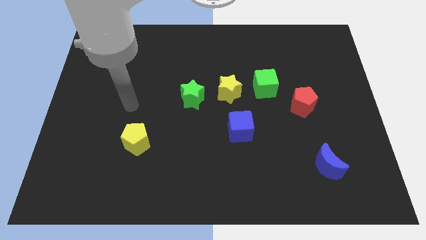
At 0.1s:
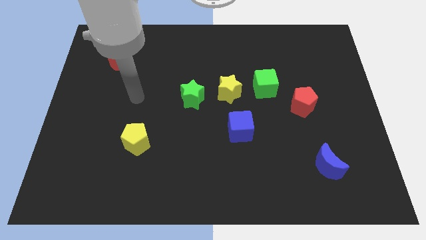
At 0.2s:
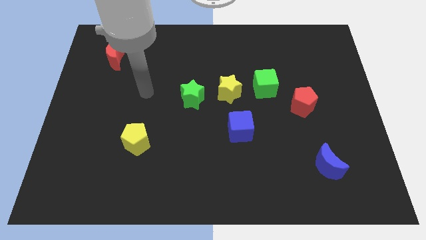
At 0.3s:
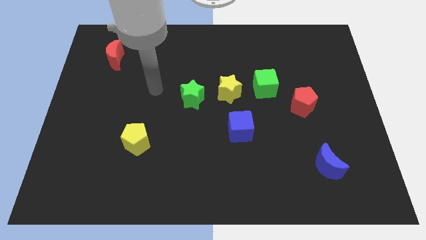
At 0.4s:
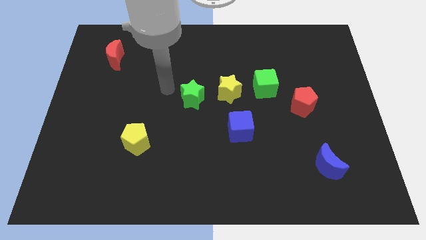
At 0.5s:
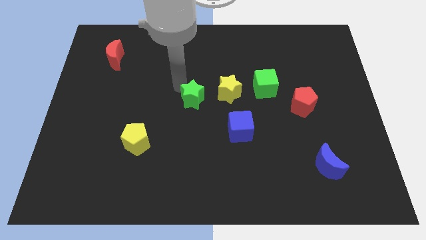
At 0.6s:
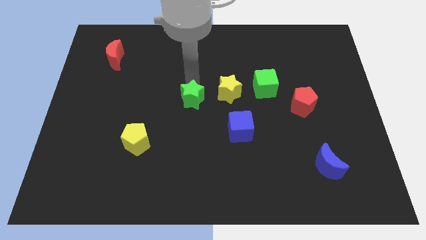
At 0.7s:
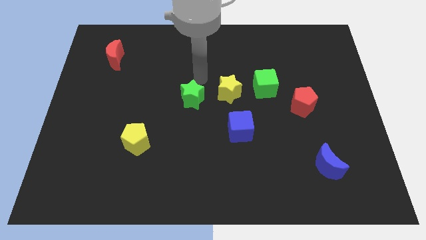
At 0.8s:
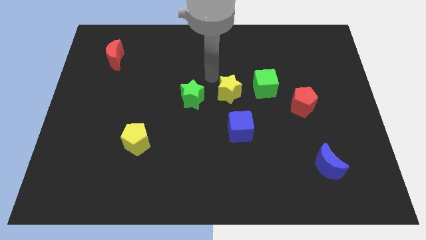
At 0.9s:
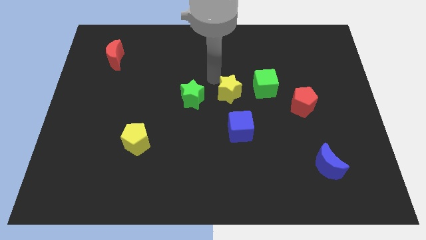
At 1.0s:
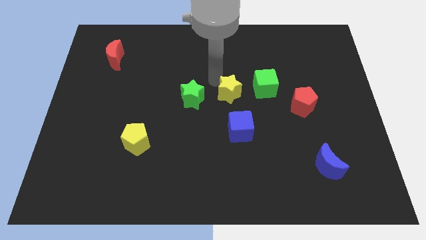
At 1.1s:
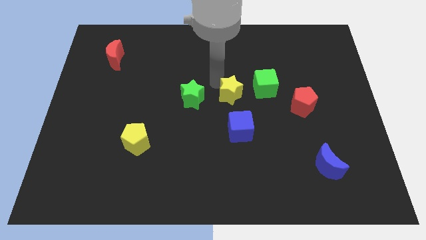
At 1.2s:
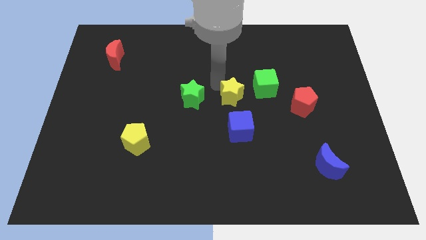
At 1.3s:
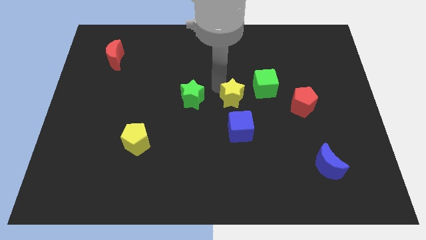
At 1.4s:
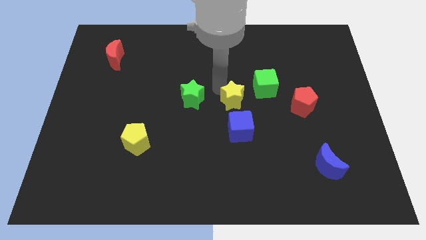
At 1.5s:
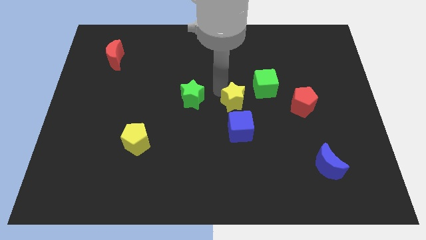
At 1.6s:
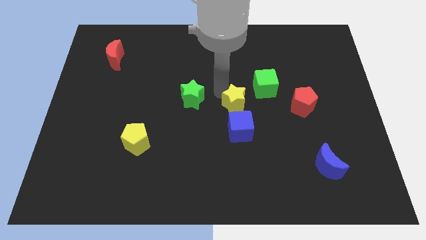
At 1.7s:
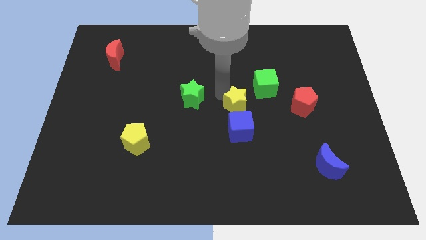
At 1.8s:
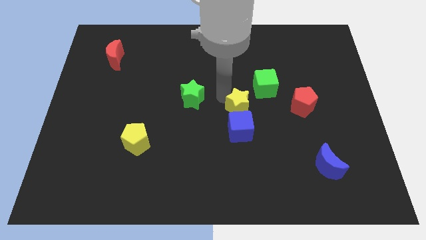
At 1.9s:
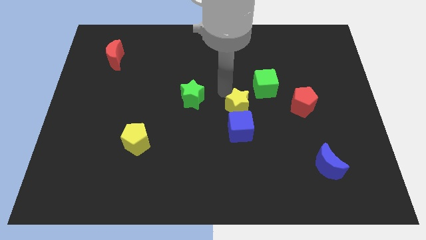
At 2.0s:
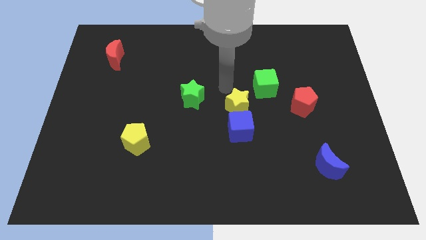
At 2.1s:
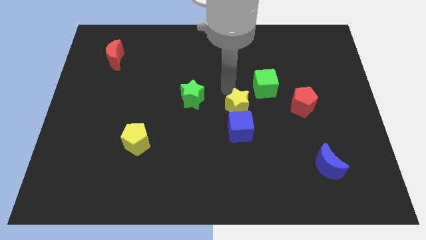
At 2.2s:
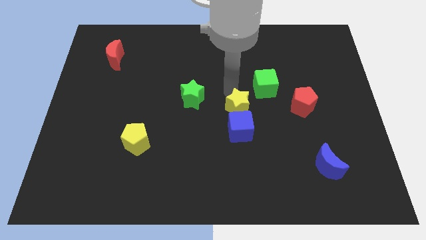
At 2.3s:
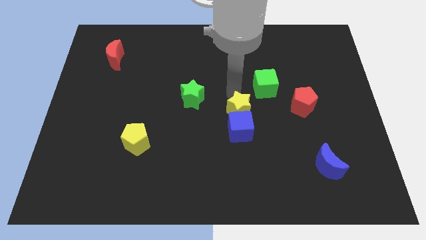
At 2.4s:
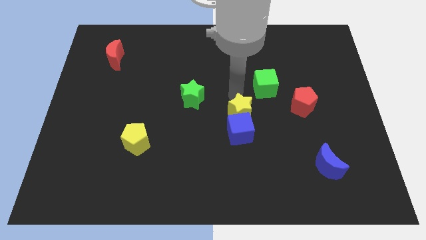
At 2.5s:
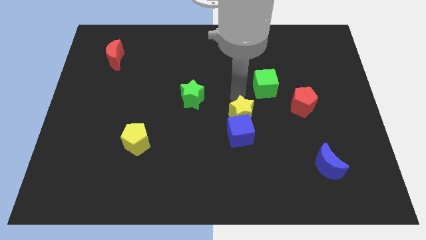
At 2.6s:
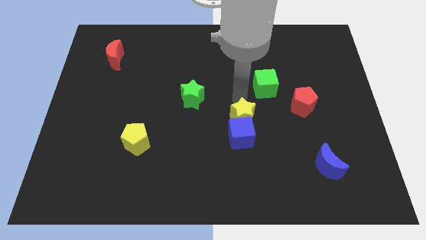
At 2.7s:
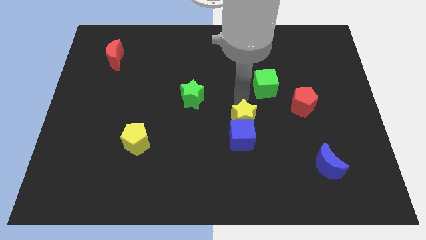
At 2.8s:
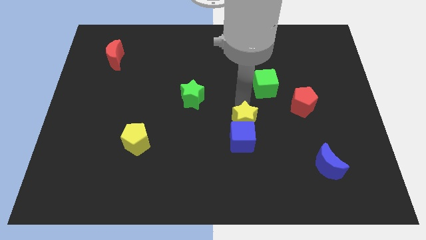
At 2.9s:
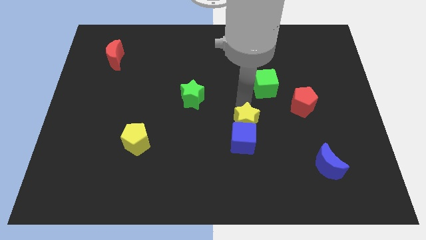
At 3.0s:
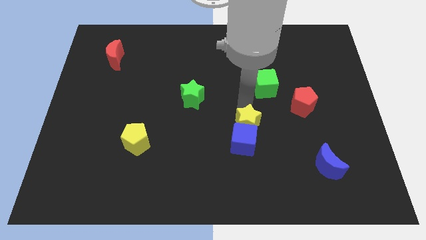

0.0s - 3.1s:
separate the yellow star from the green cube and green star

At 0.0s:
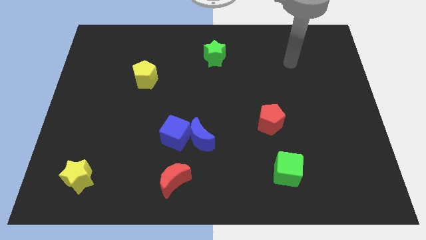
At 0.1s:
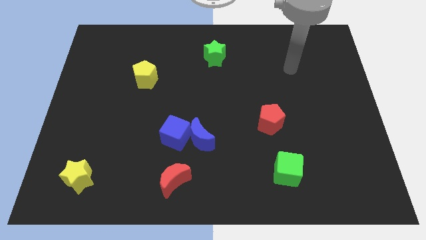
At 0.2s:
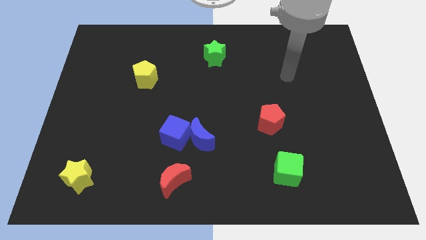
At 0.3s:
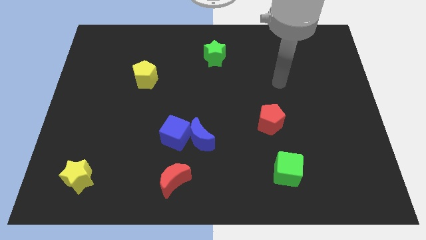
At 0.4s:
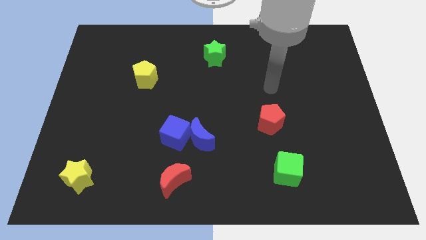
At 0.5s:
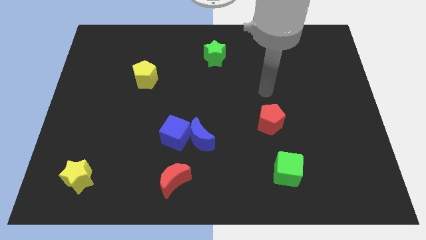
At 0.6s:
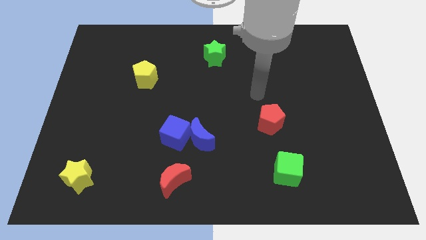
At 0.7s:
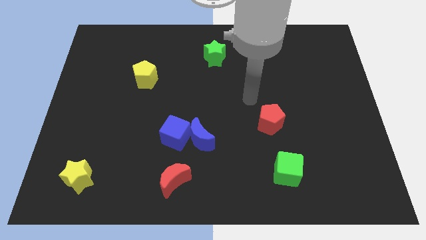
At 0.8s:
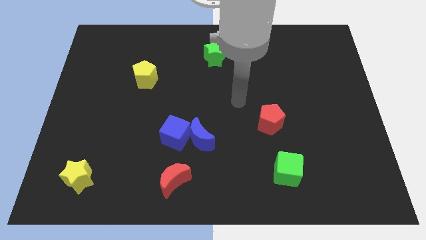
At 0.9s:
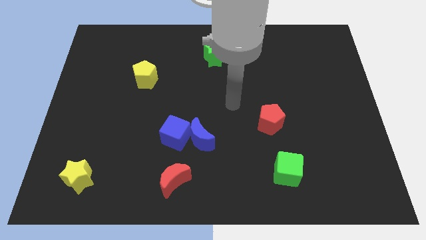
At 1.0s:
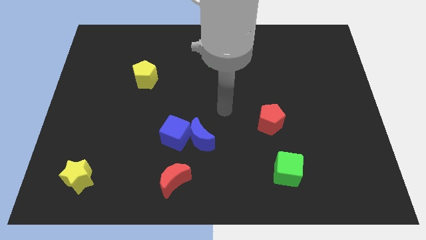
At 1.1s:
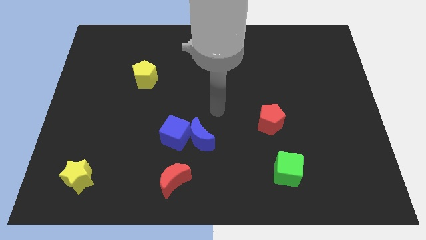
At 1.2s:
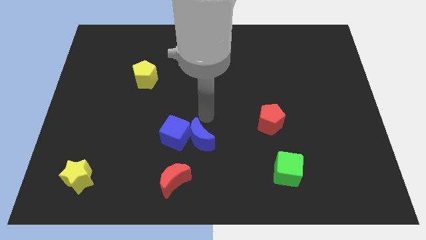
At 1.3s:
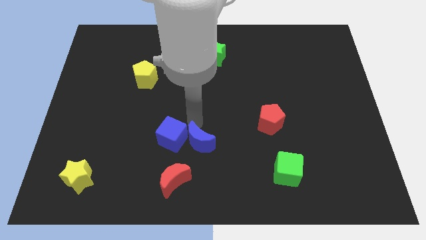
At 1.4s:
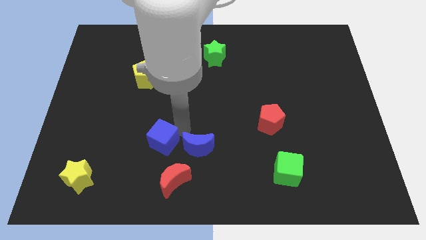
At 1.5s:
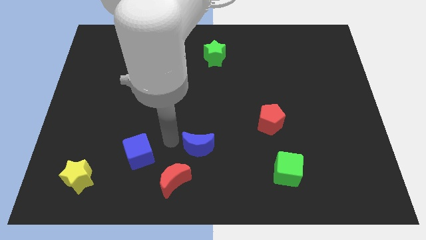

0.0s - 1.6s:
pull the blue moon apart from the blue cube

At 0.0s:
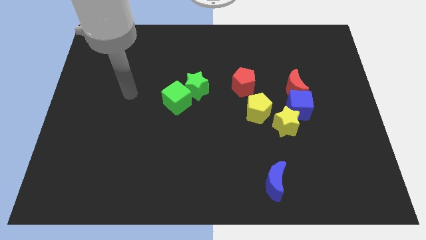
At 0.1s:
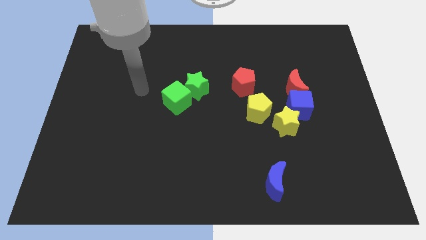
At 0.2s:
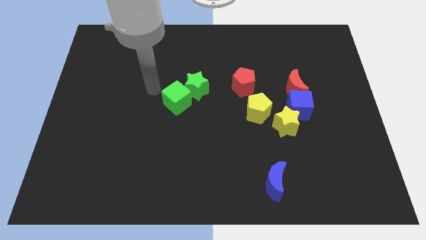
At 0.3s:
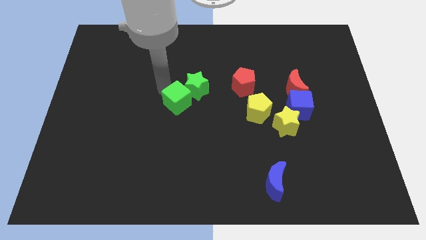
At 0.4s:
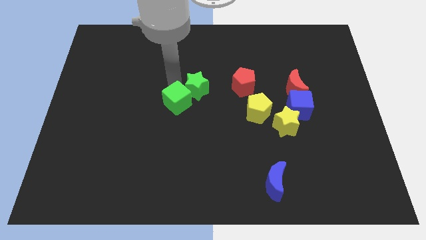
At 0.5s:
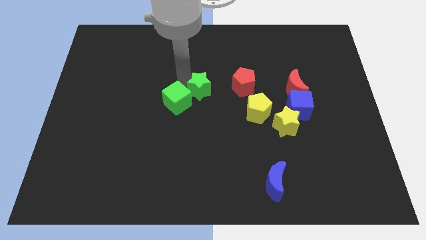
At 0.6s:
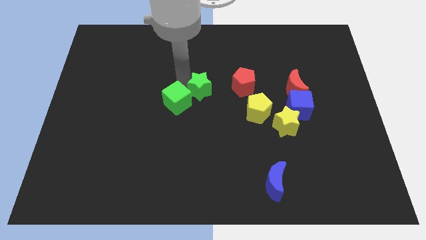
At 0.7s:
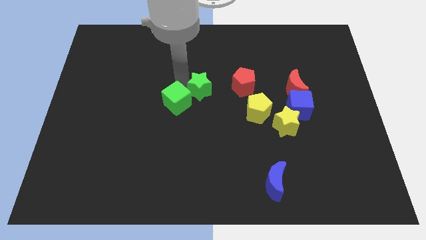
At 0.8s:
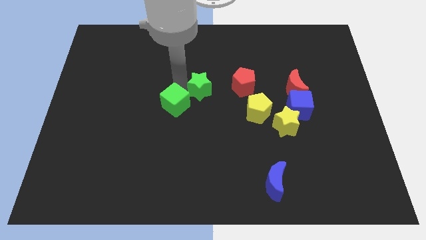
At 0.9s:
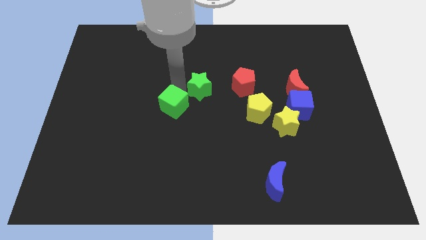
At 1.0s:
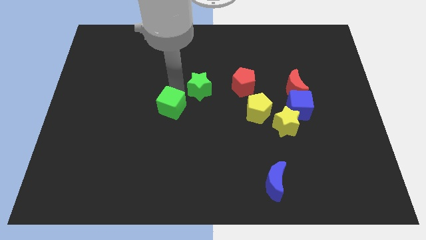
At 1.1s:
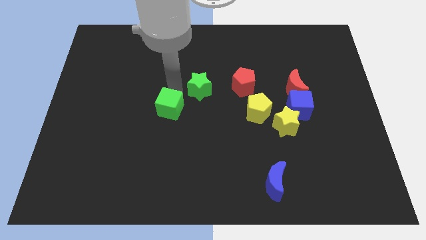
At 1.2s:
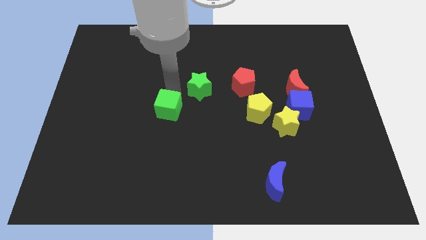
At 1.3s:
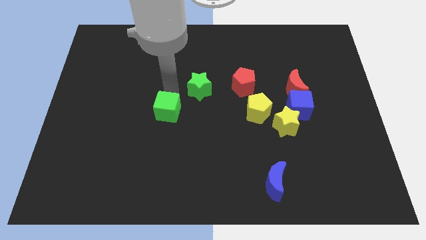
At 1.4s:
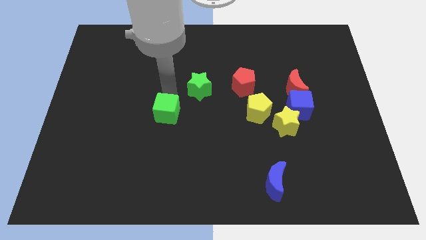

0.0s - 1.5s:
separate the green cube from the green star

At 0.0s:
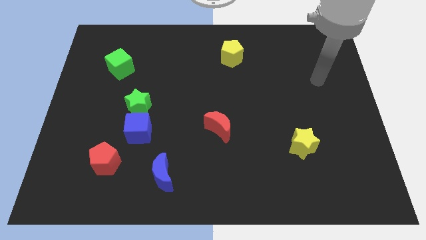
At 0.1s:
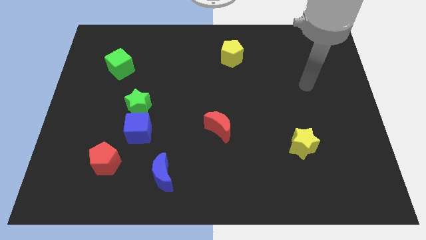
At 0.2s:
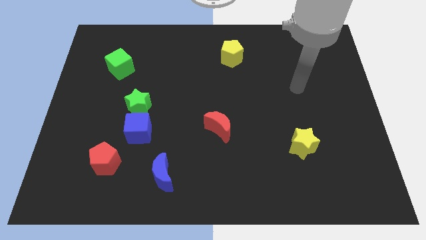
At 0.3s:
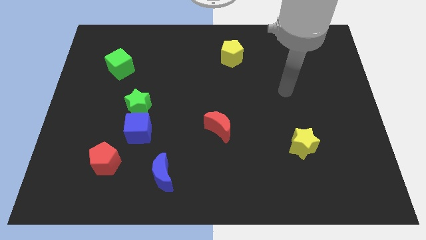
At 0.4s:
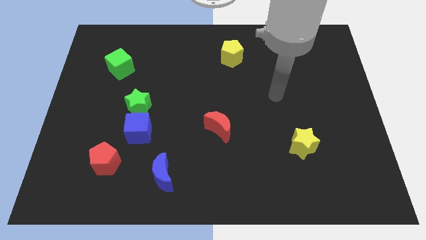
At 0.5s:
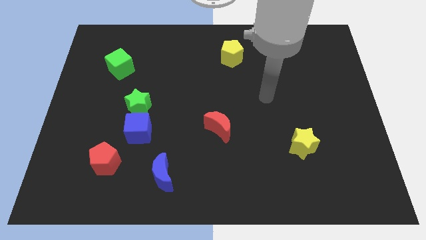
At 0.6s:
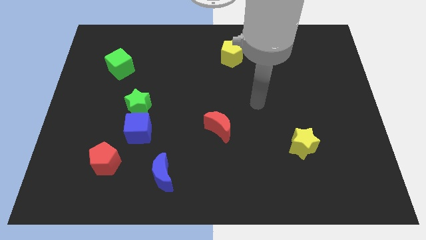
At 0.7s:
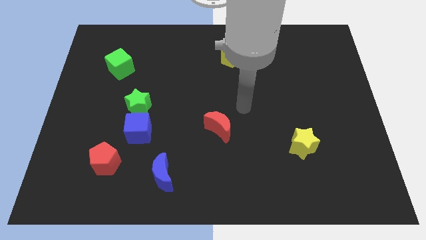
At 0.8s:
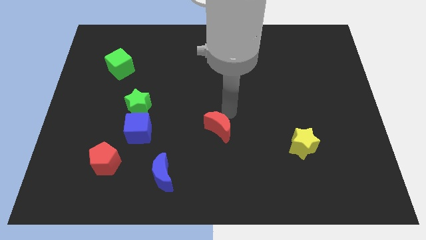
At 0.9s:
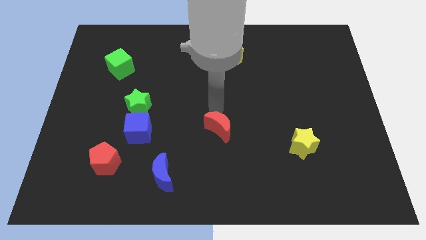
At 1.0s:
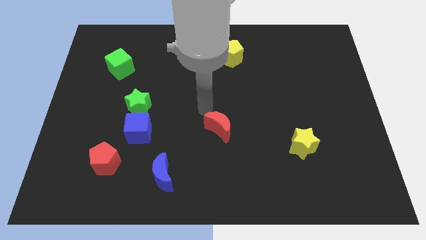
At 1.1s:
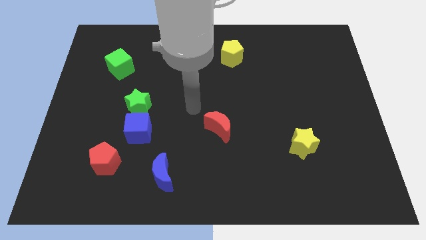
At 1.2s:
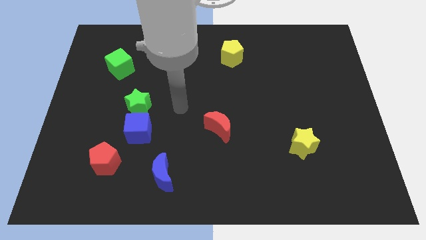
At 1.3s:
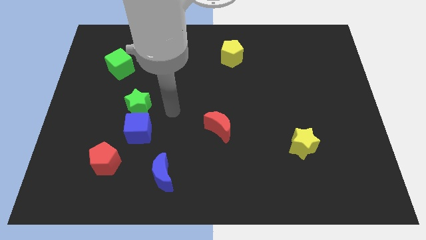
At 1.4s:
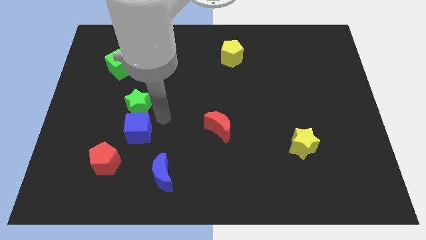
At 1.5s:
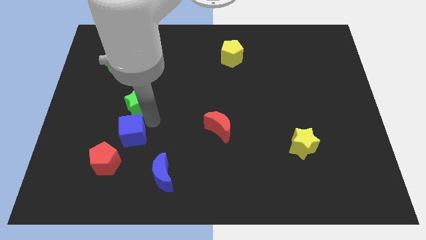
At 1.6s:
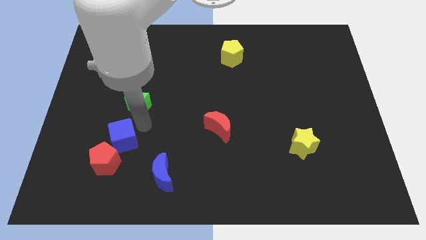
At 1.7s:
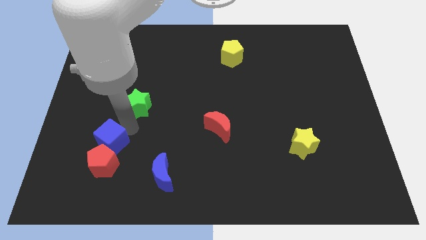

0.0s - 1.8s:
pull the green star apart from the blue cube

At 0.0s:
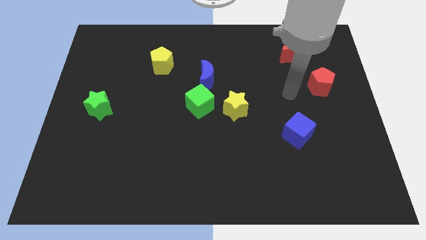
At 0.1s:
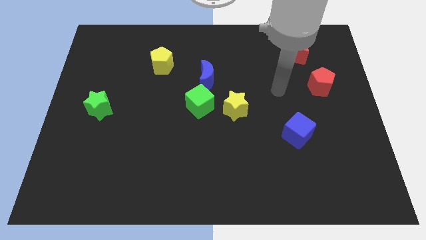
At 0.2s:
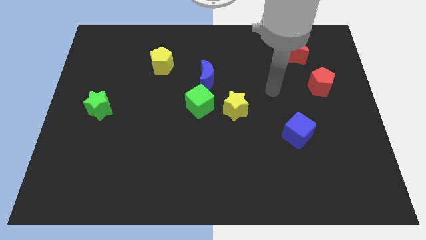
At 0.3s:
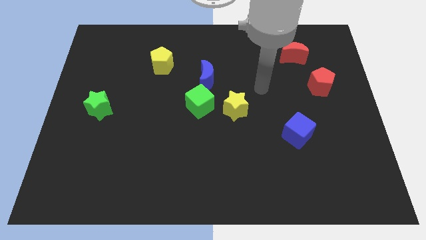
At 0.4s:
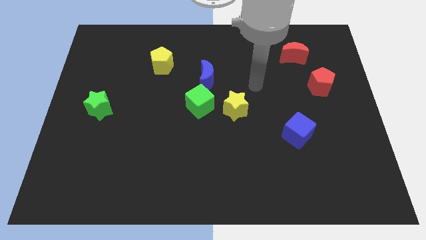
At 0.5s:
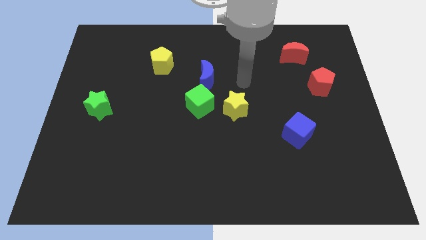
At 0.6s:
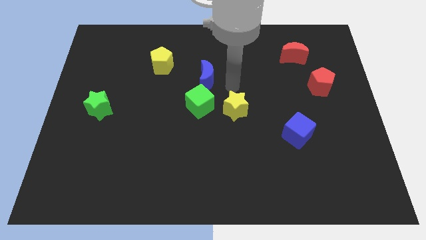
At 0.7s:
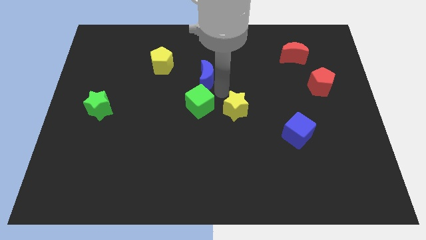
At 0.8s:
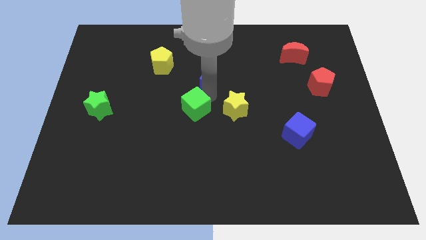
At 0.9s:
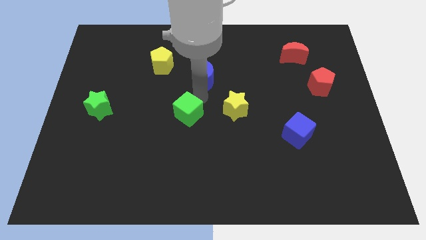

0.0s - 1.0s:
pull the blue moon apart from the green cube

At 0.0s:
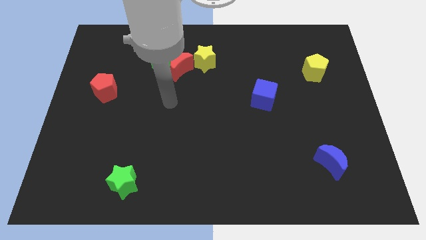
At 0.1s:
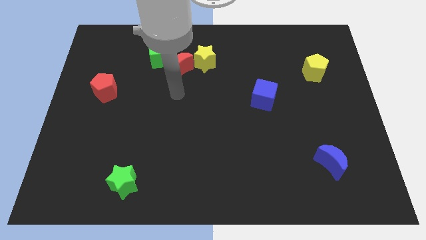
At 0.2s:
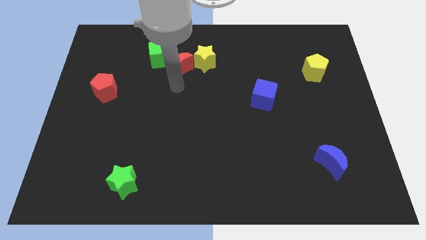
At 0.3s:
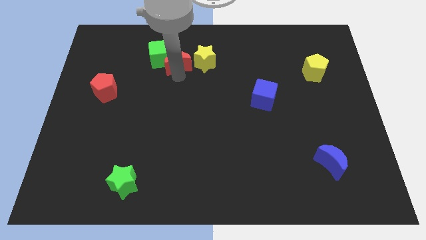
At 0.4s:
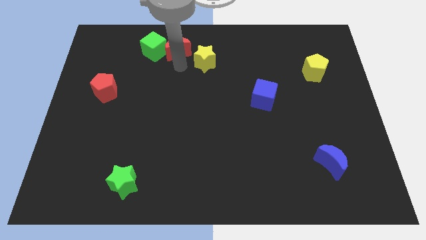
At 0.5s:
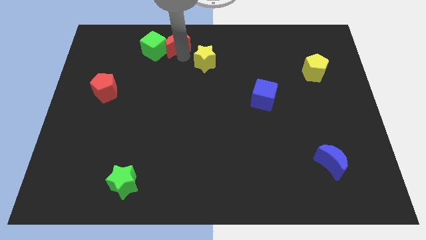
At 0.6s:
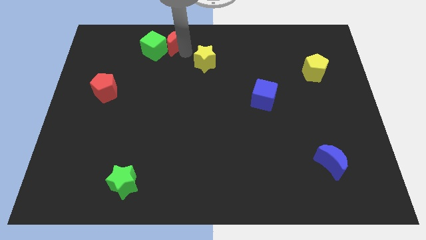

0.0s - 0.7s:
separate the yellow star from the red moon
